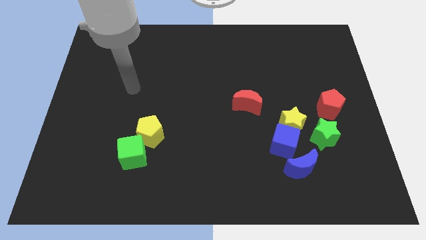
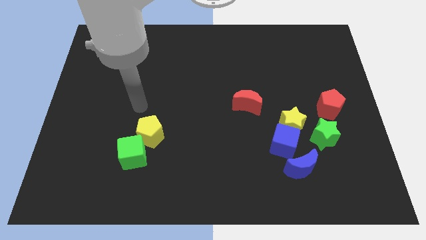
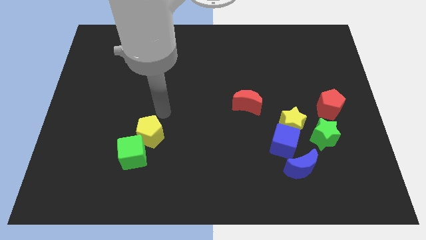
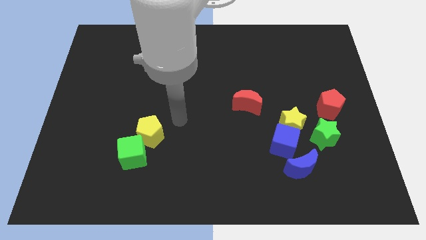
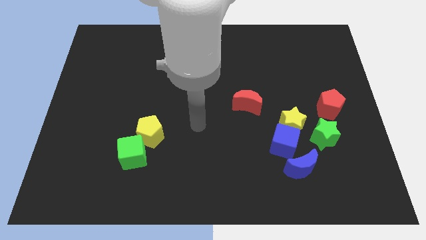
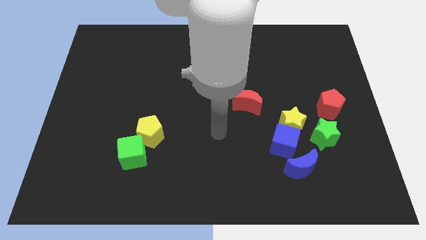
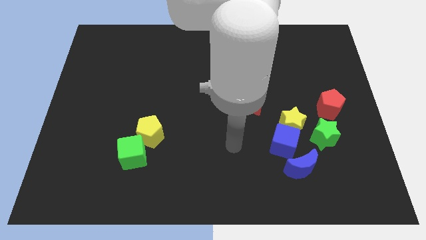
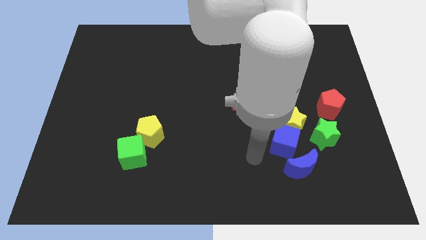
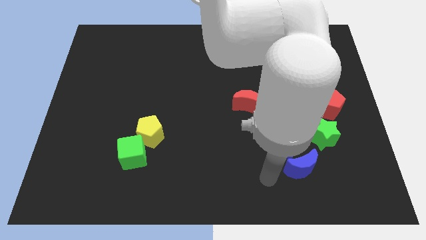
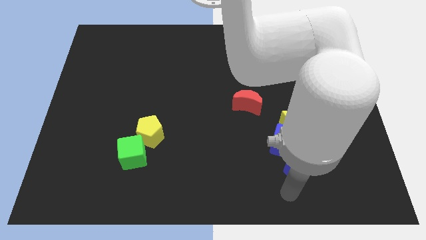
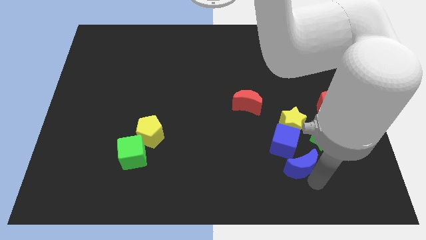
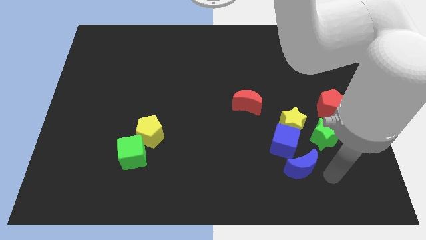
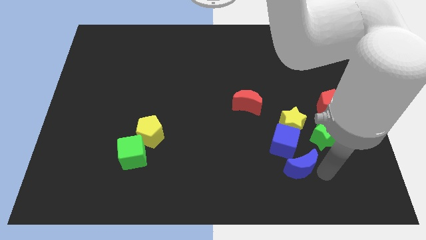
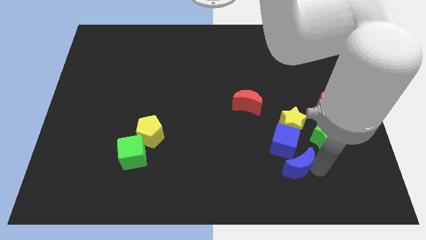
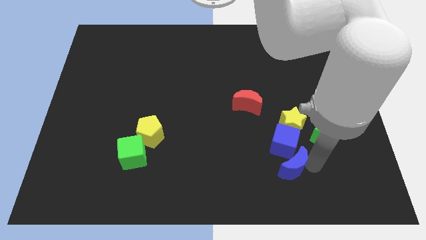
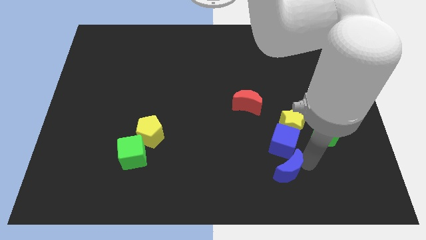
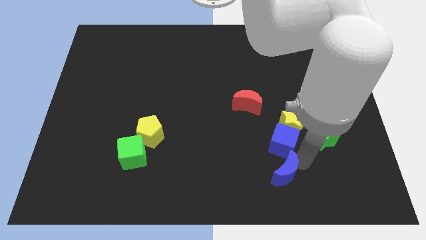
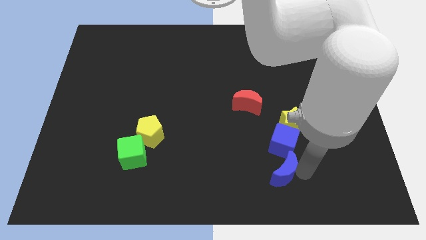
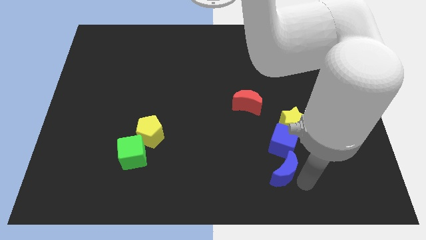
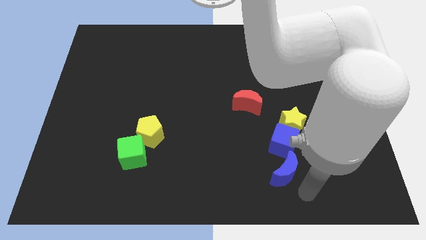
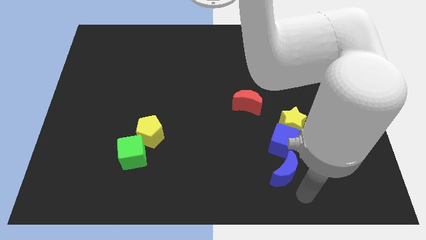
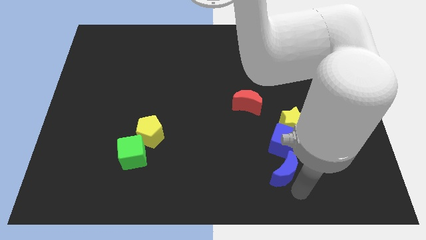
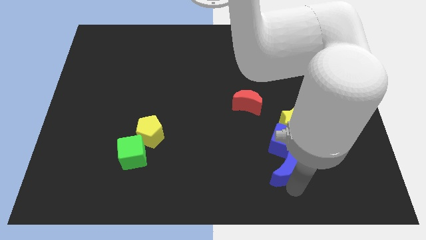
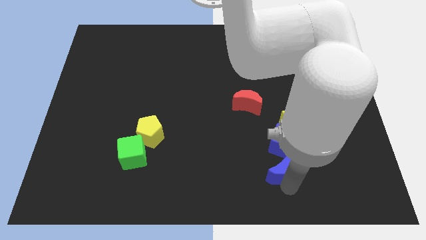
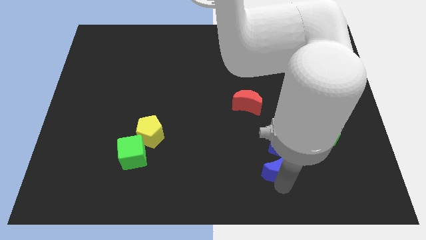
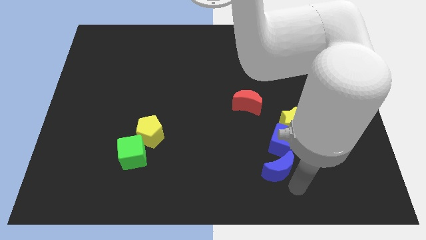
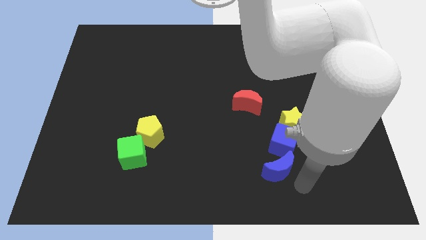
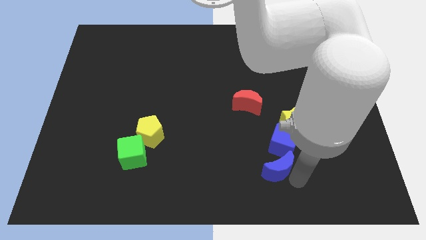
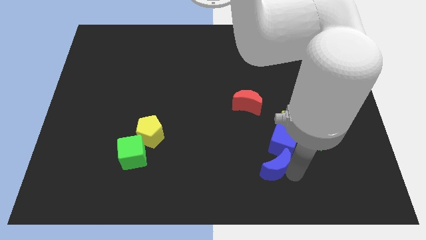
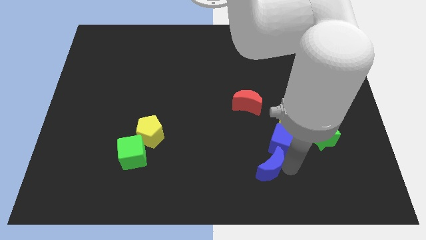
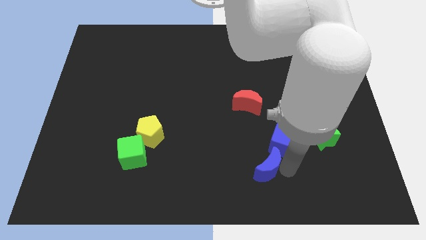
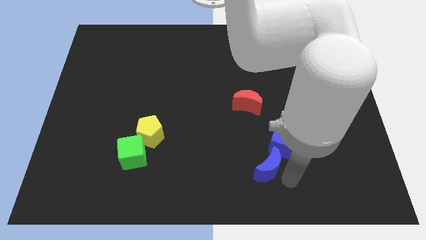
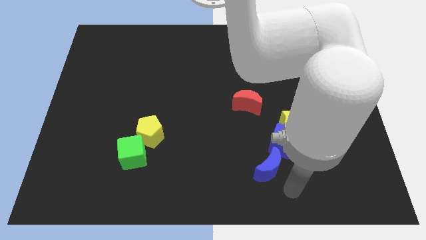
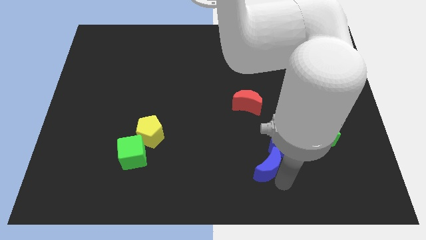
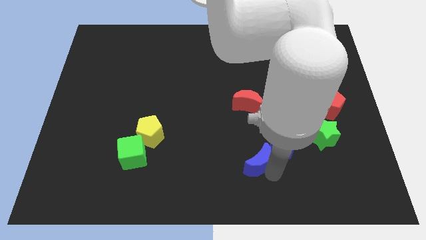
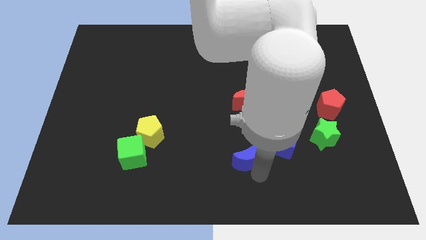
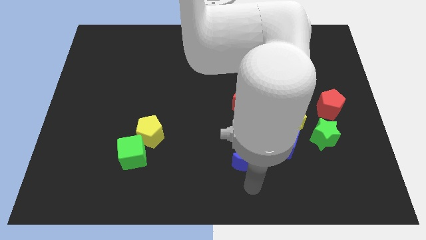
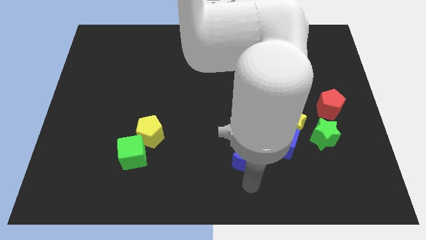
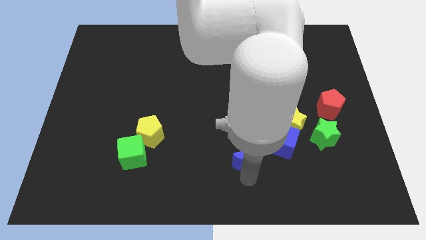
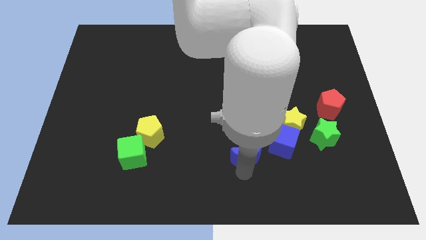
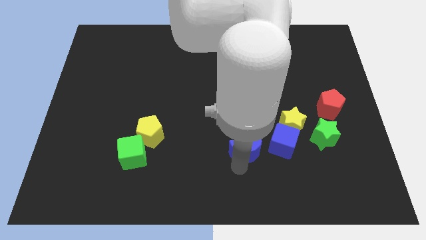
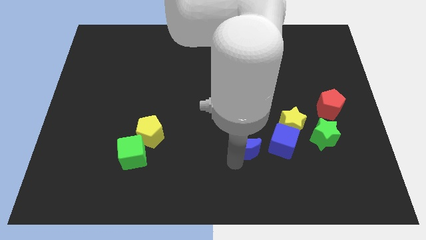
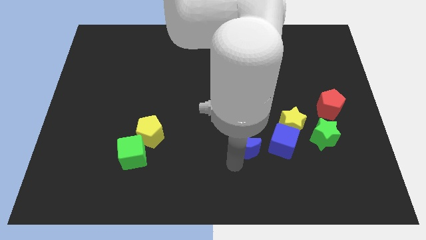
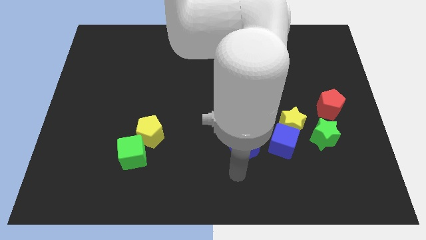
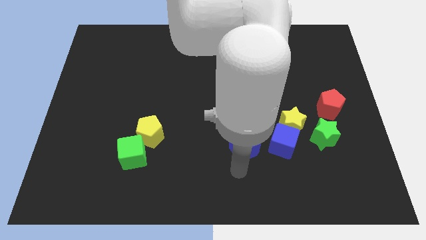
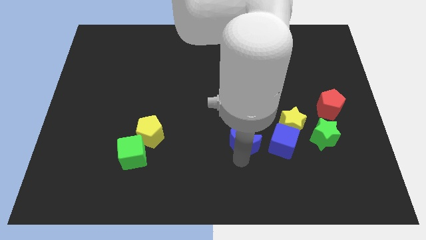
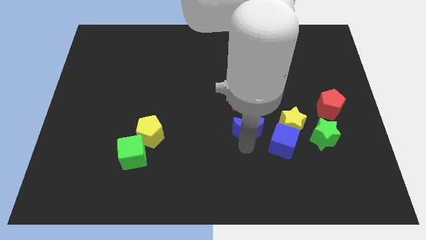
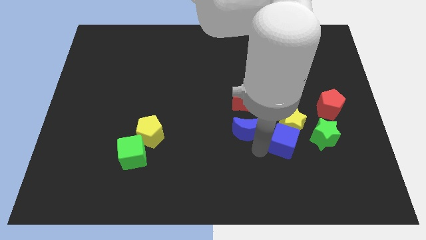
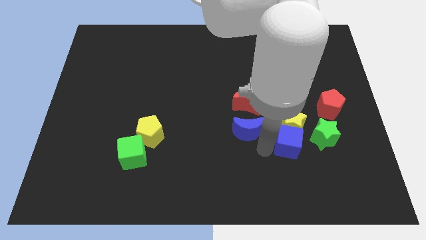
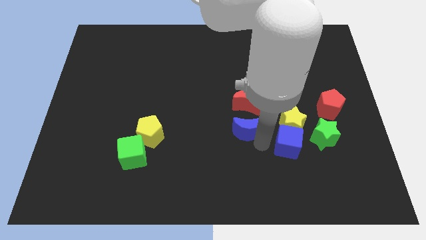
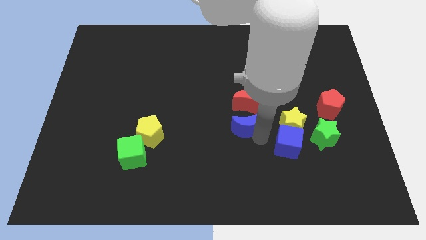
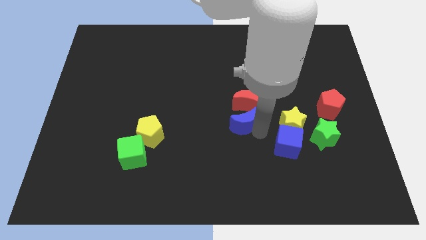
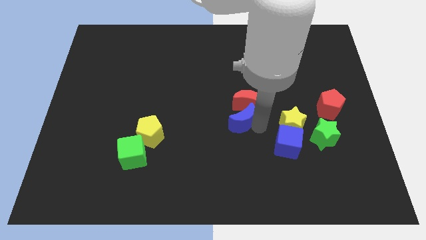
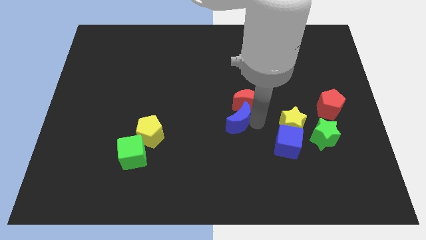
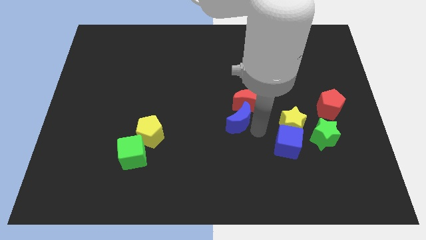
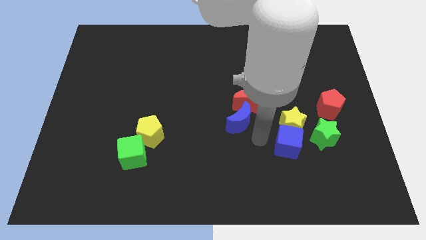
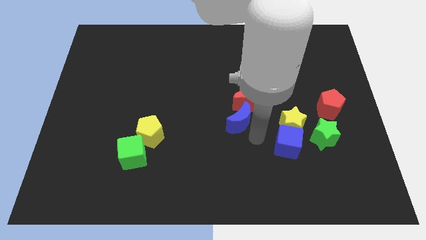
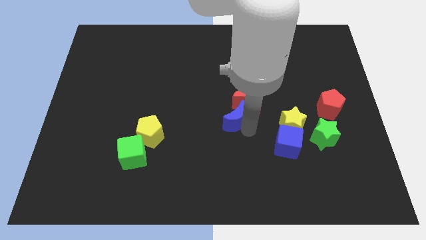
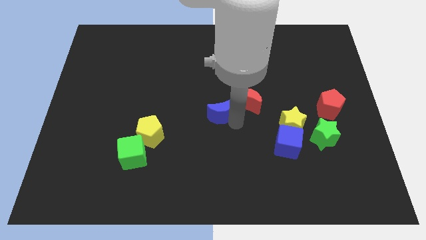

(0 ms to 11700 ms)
push the blue moon up and left diagonally

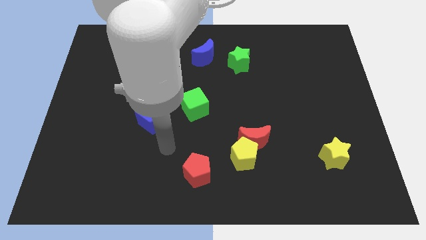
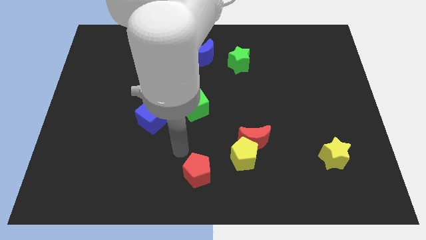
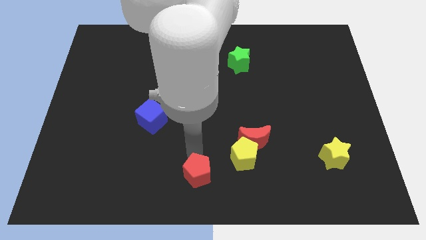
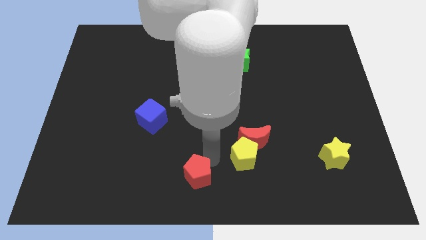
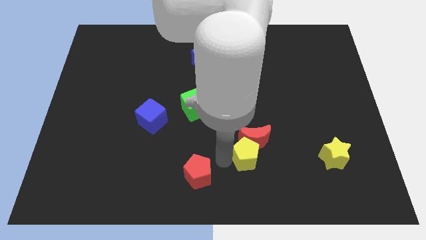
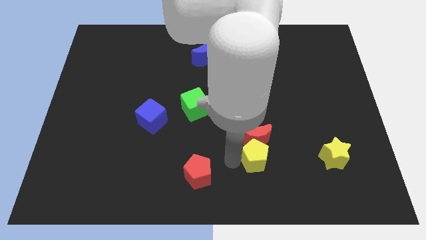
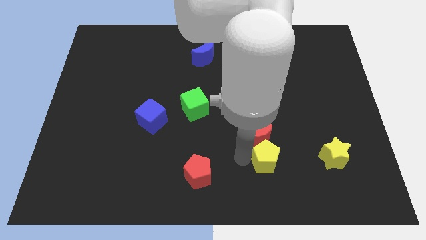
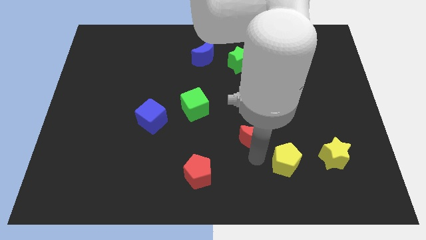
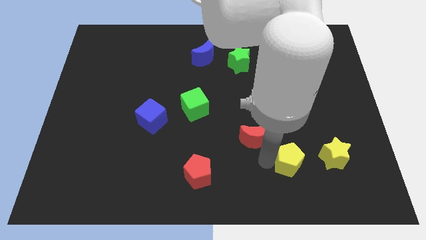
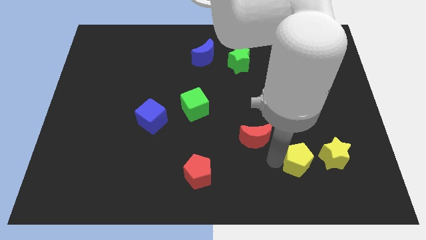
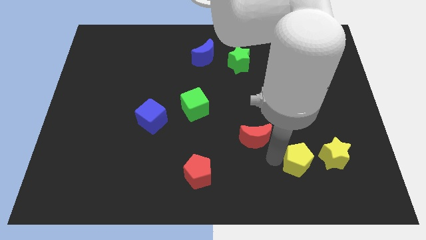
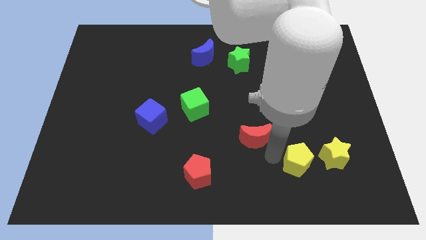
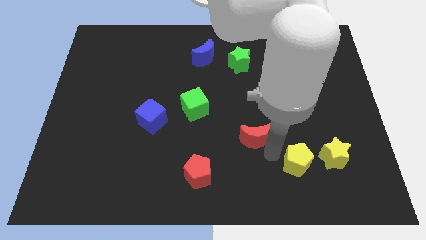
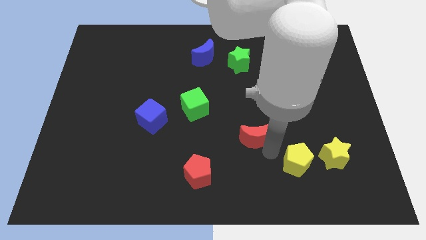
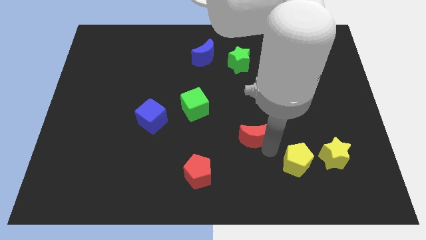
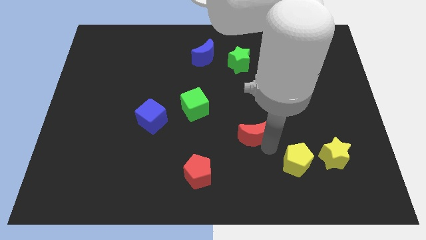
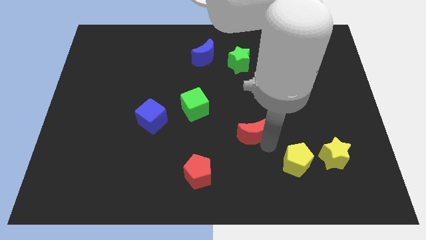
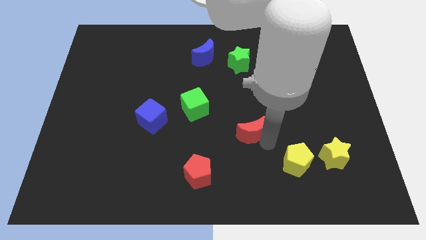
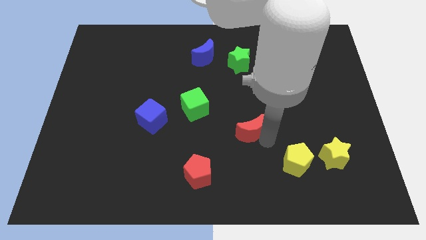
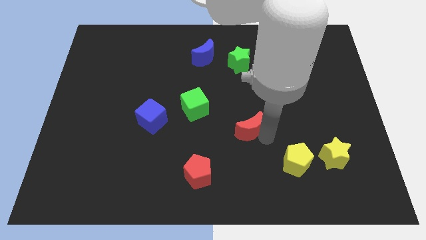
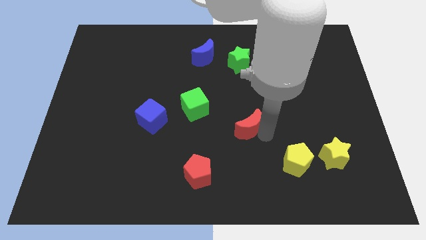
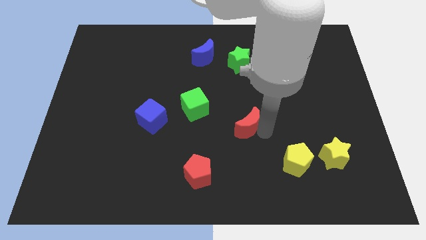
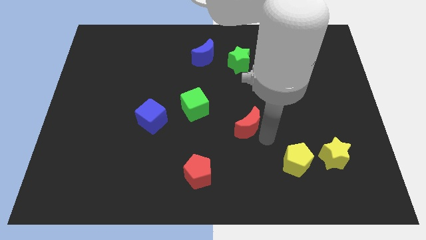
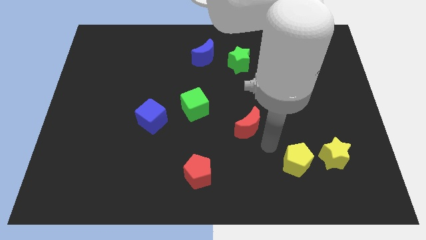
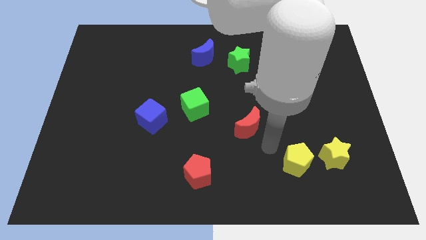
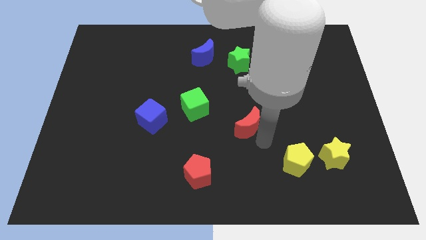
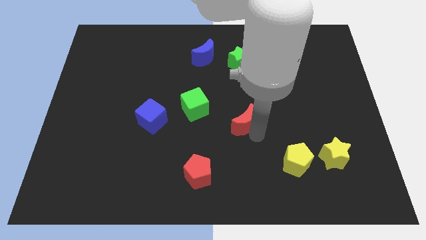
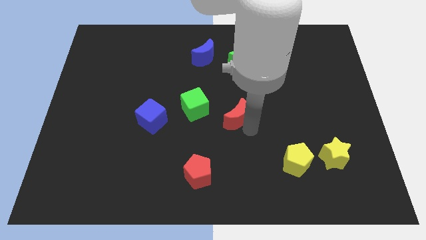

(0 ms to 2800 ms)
move the red moon diagonally upwards and left a bit
